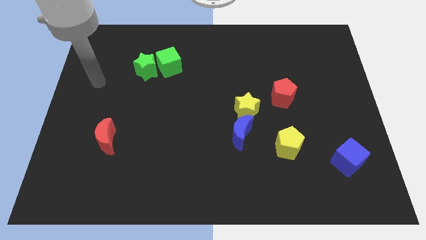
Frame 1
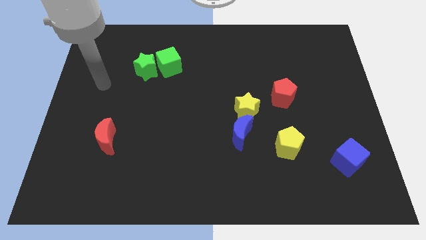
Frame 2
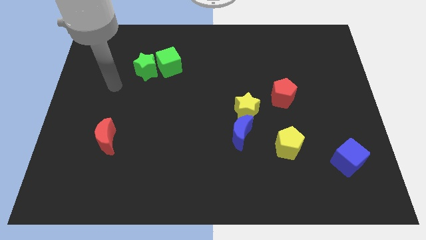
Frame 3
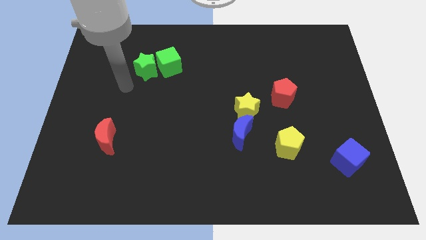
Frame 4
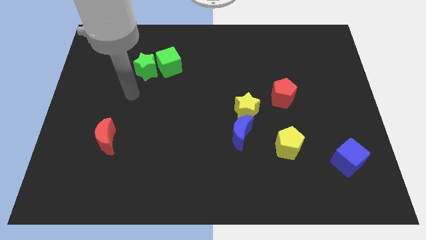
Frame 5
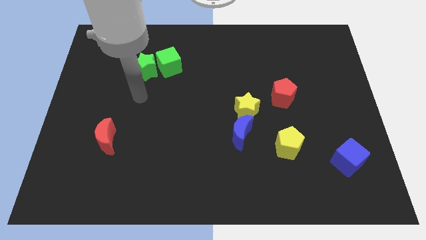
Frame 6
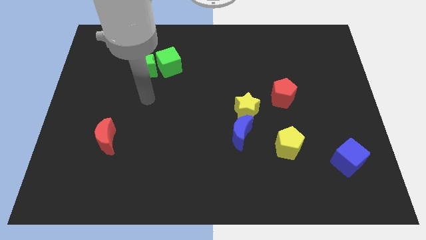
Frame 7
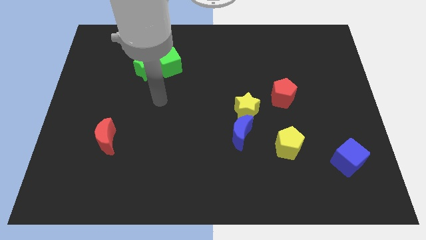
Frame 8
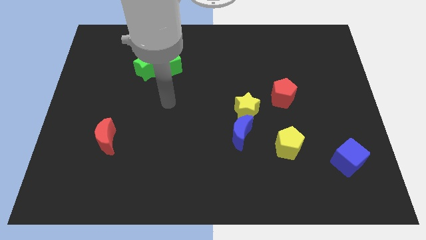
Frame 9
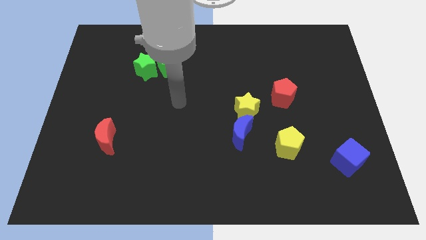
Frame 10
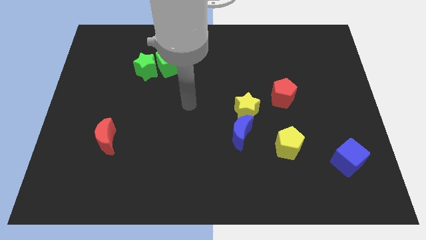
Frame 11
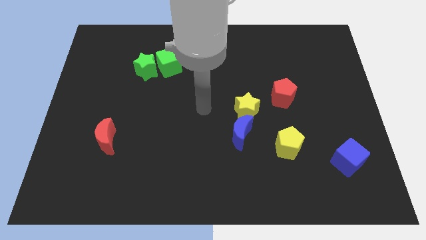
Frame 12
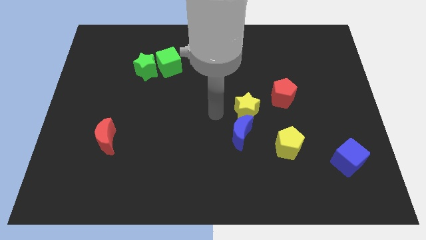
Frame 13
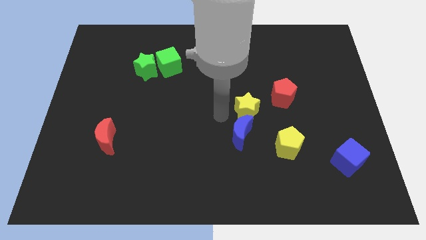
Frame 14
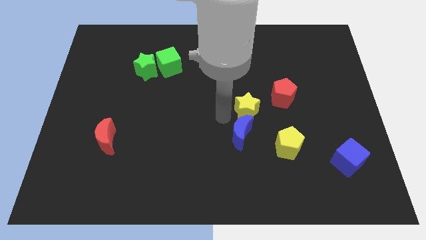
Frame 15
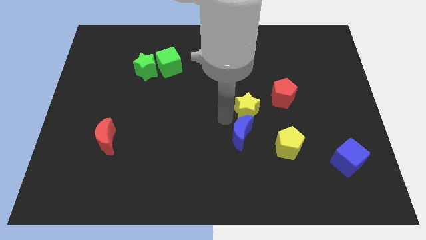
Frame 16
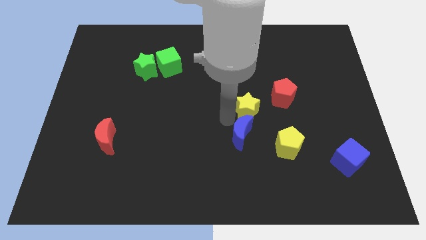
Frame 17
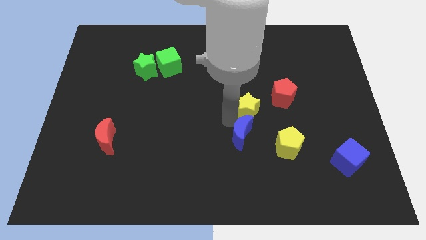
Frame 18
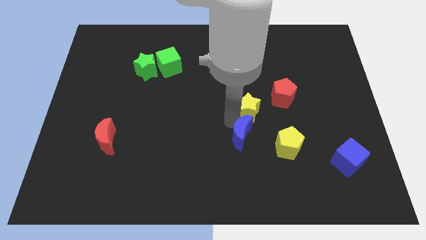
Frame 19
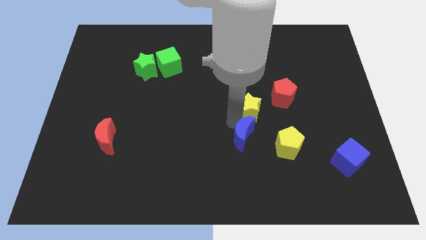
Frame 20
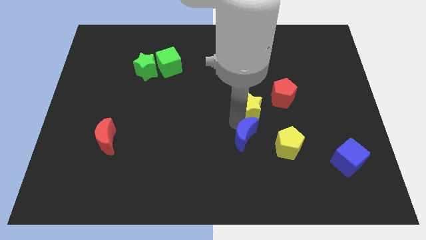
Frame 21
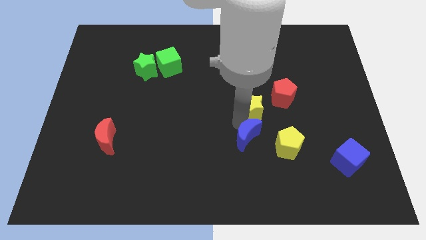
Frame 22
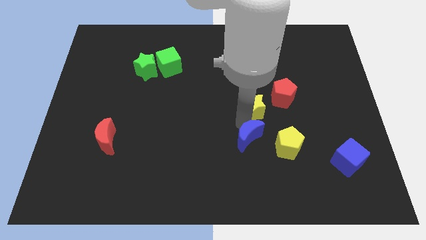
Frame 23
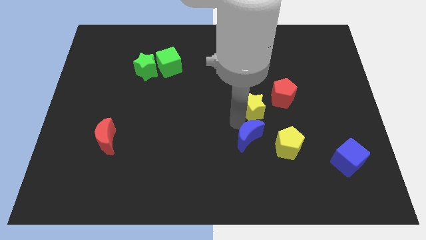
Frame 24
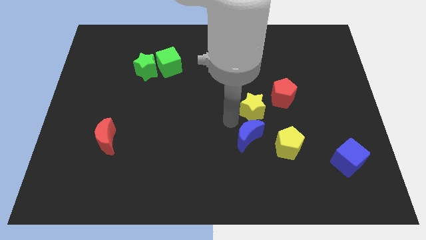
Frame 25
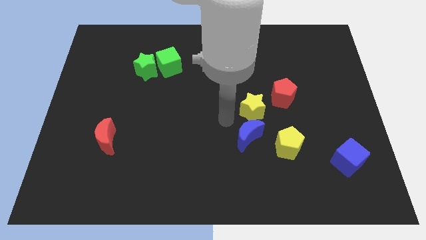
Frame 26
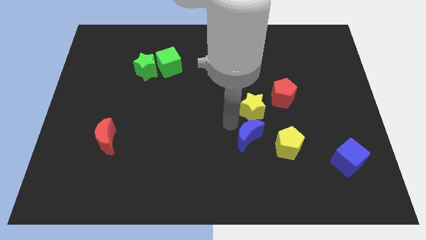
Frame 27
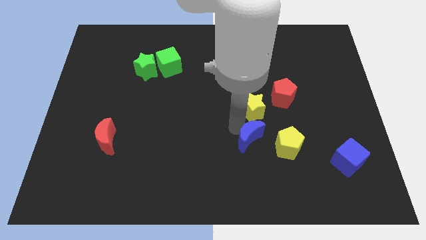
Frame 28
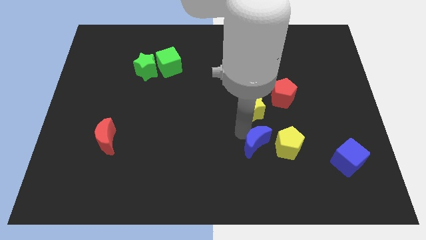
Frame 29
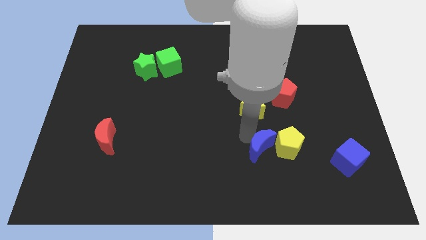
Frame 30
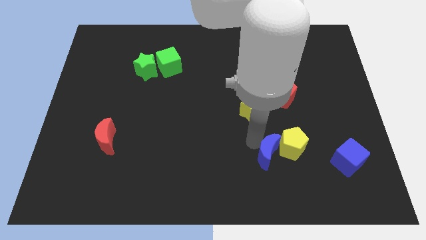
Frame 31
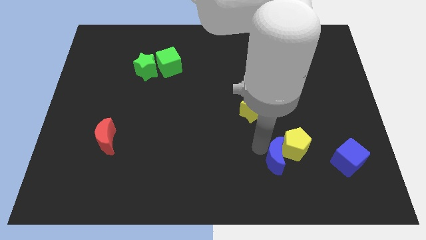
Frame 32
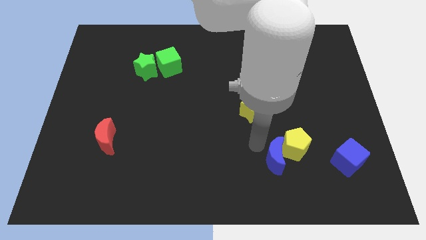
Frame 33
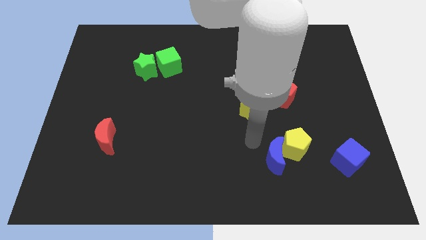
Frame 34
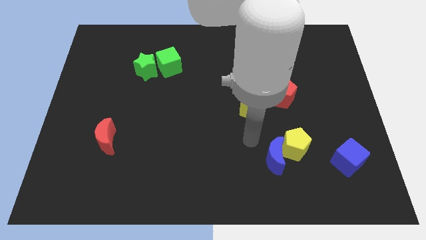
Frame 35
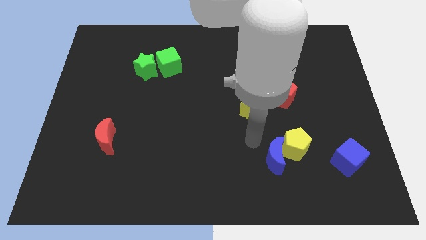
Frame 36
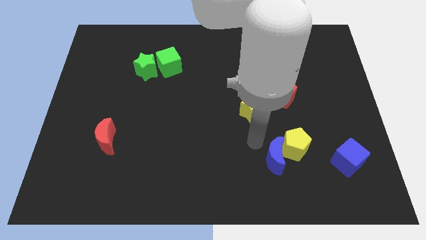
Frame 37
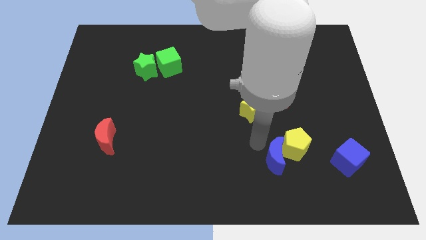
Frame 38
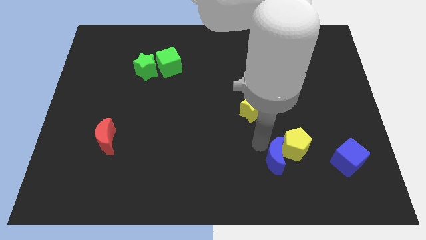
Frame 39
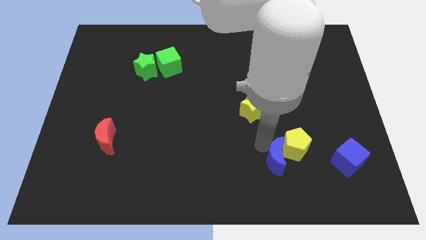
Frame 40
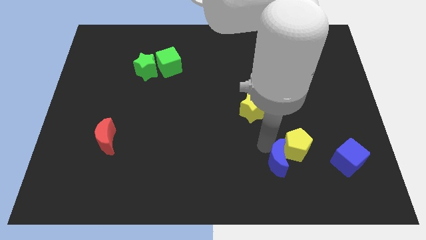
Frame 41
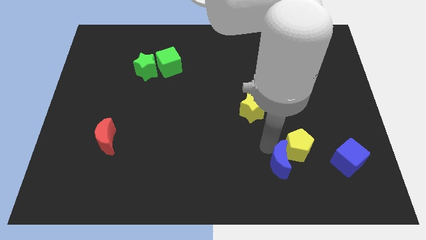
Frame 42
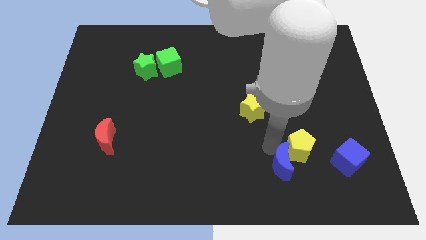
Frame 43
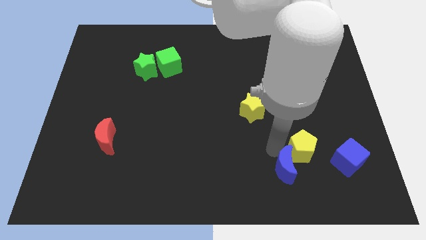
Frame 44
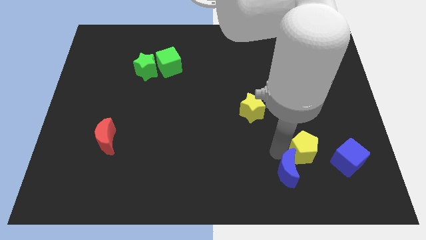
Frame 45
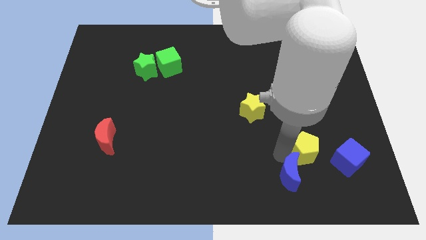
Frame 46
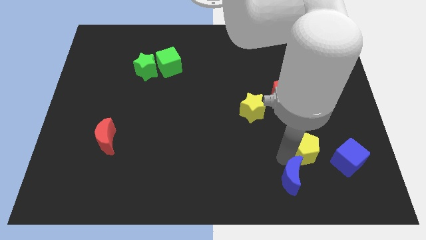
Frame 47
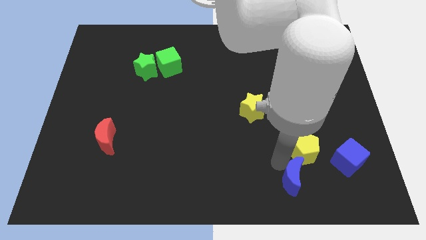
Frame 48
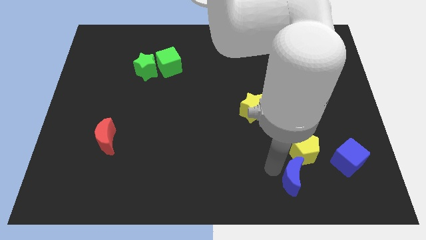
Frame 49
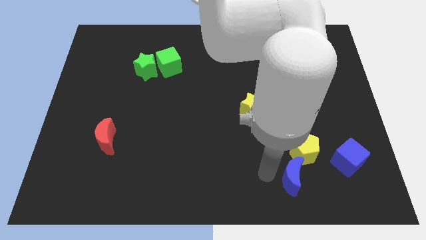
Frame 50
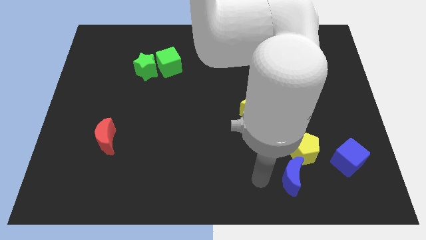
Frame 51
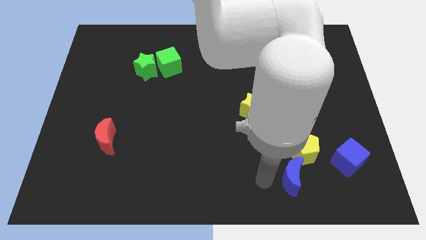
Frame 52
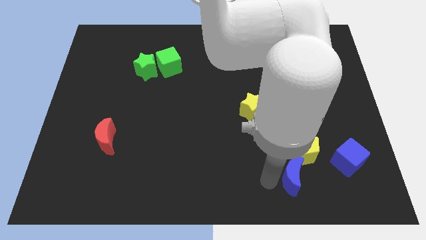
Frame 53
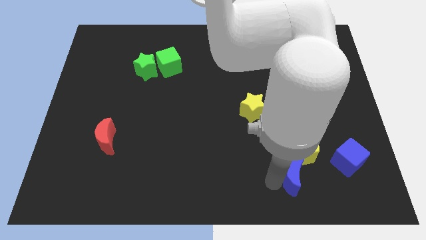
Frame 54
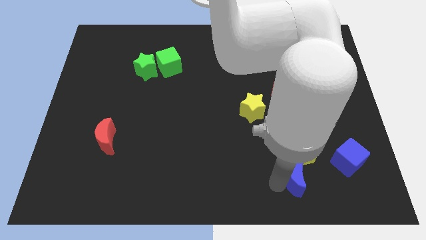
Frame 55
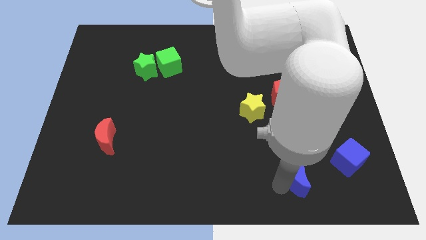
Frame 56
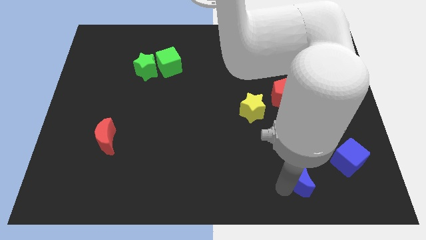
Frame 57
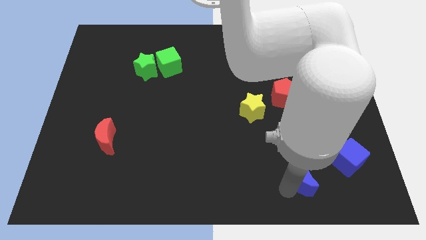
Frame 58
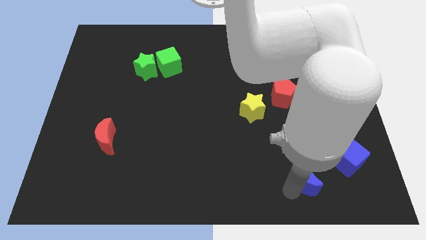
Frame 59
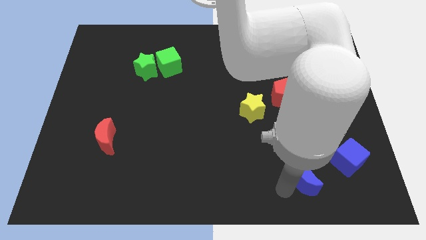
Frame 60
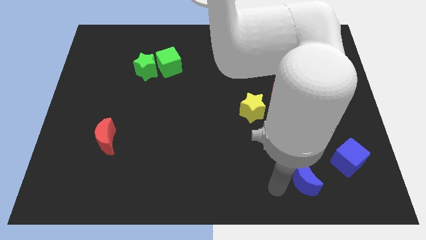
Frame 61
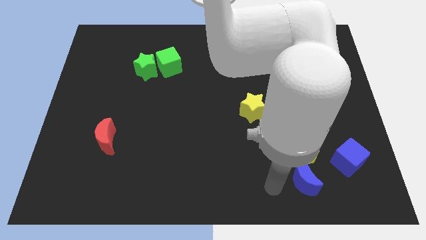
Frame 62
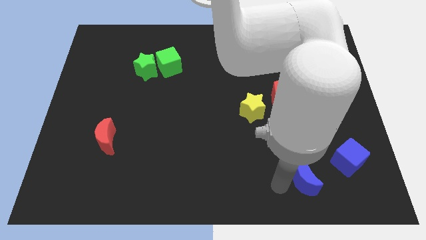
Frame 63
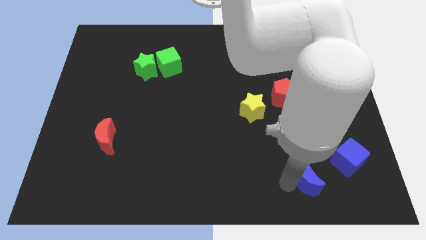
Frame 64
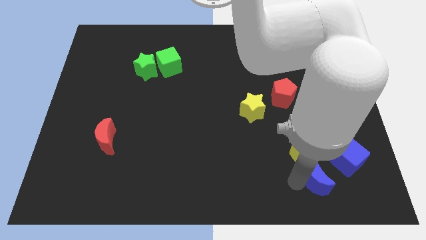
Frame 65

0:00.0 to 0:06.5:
slide the blue moon diagonally down and to the right of the yellow pentagon

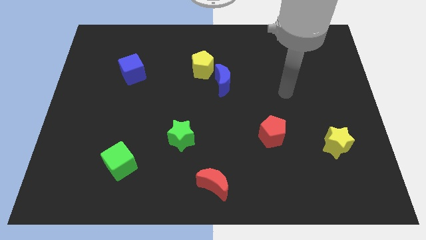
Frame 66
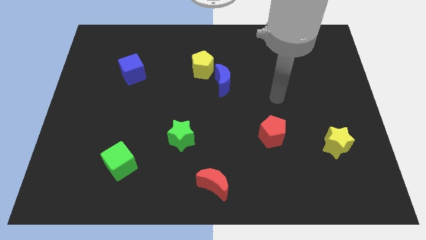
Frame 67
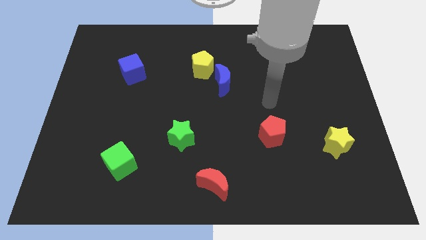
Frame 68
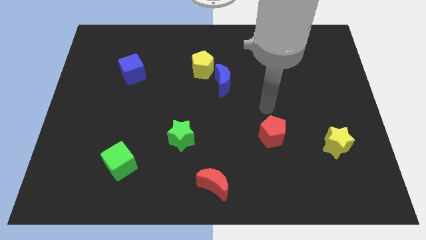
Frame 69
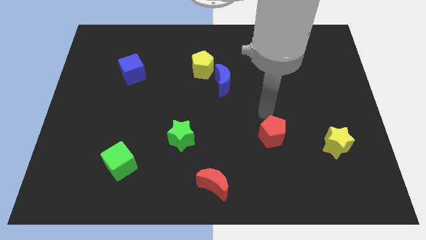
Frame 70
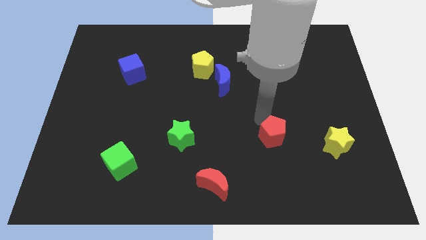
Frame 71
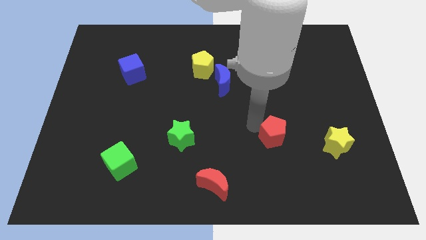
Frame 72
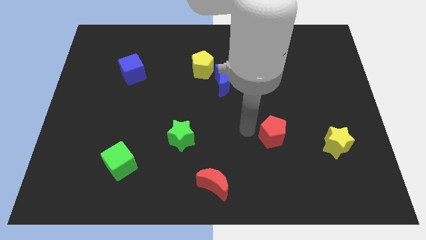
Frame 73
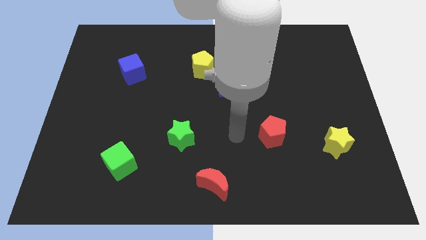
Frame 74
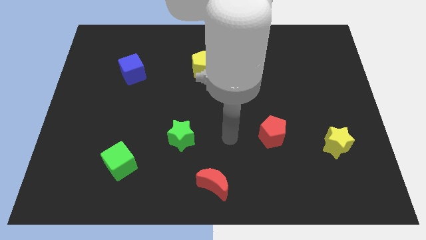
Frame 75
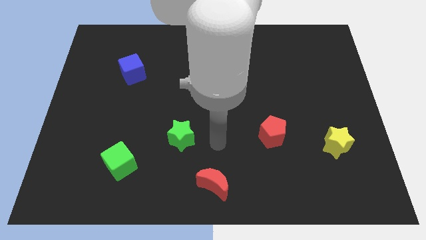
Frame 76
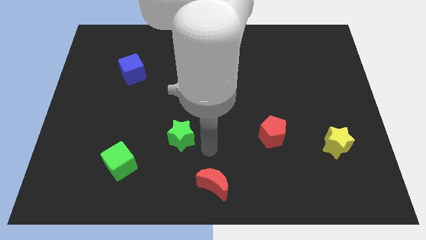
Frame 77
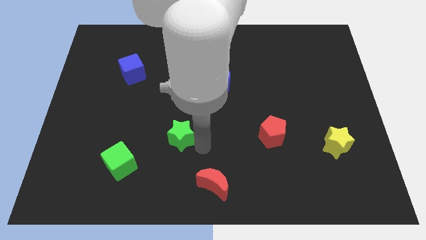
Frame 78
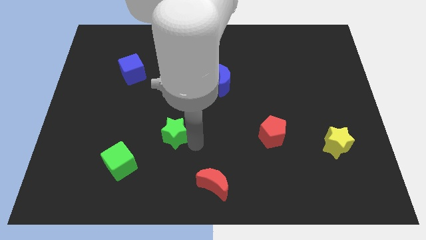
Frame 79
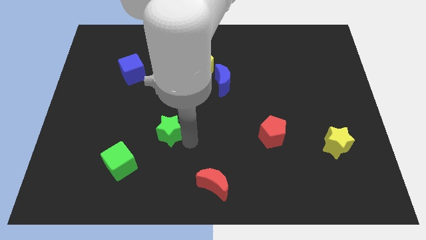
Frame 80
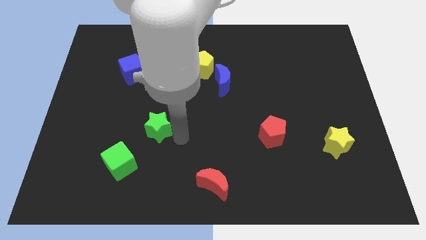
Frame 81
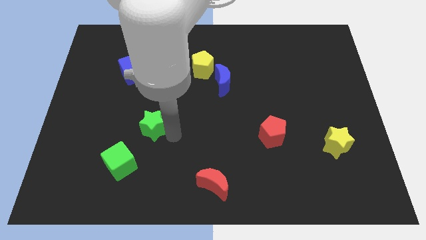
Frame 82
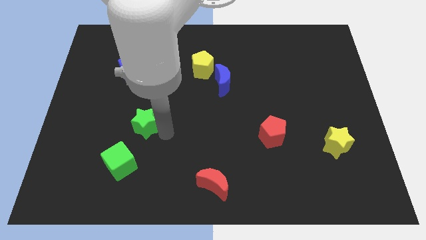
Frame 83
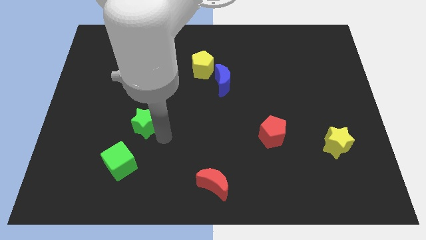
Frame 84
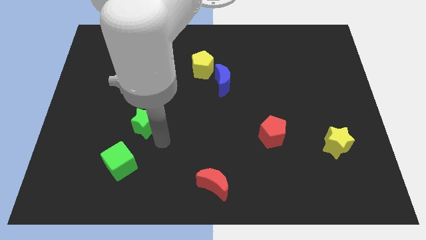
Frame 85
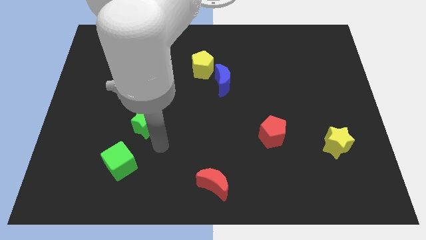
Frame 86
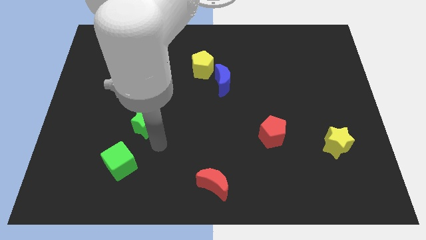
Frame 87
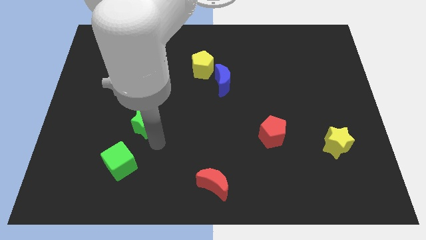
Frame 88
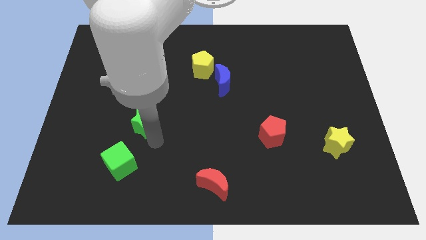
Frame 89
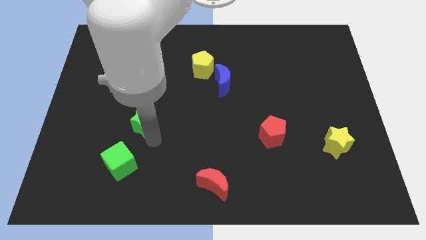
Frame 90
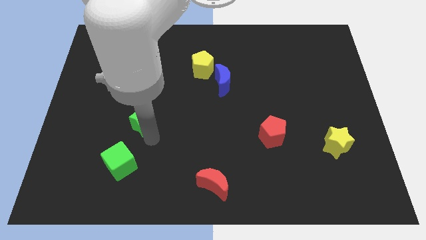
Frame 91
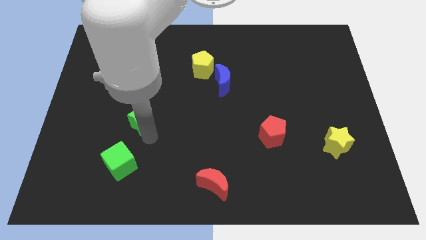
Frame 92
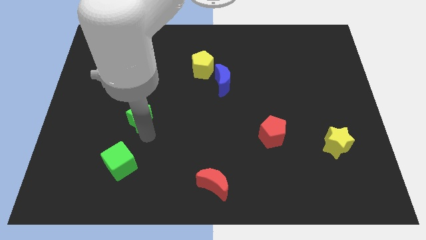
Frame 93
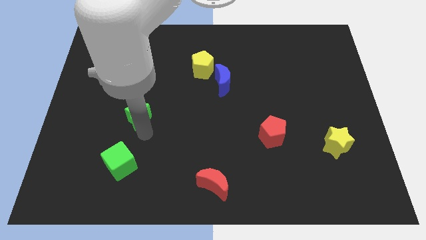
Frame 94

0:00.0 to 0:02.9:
push the green star below the blue cube
